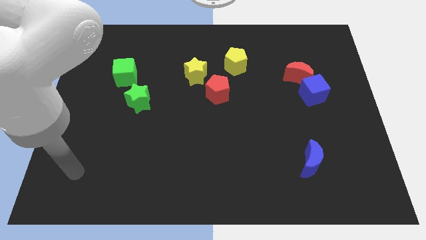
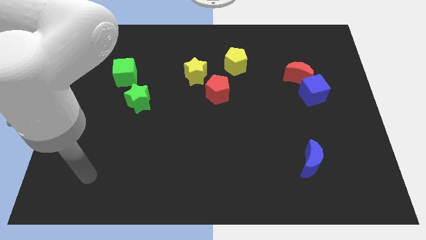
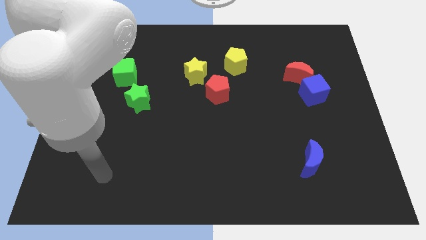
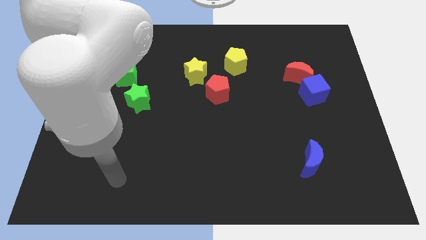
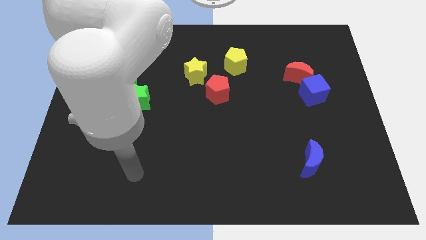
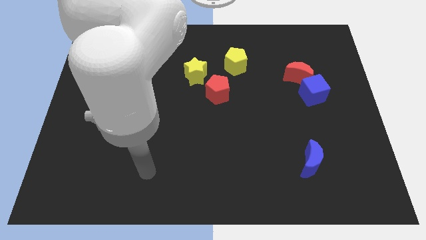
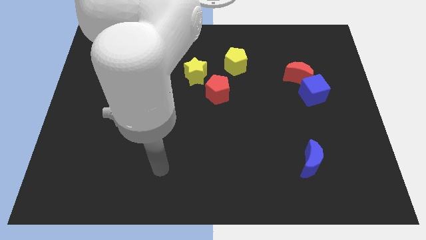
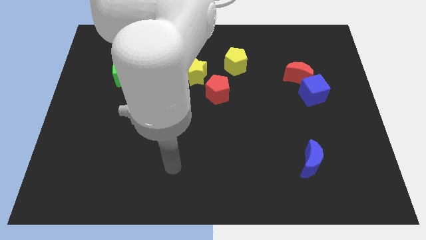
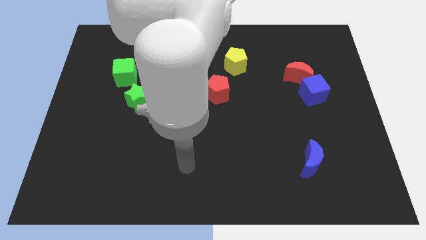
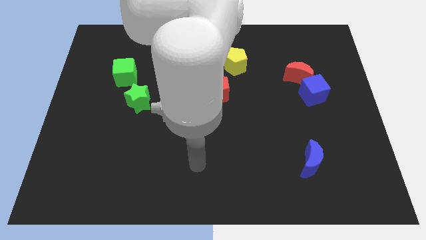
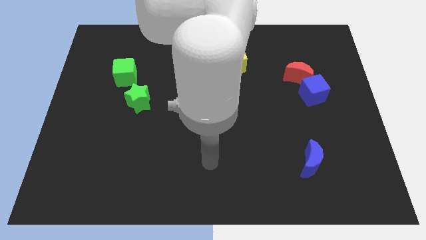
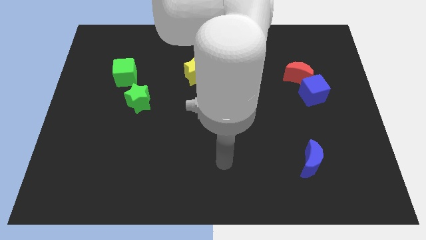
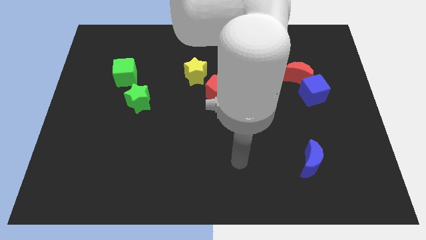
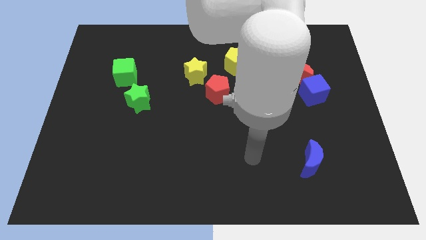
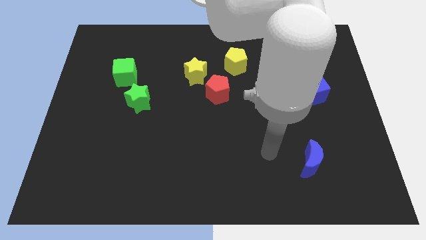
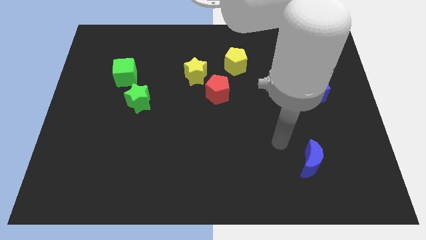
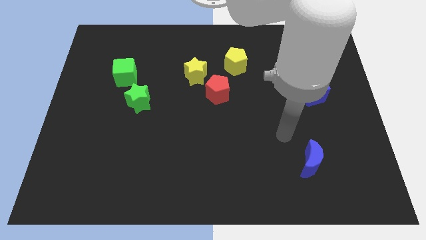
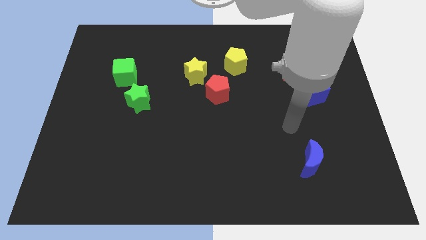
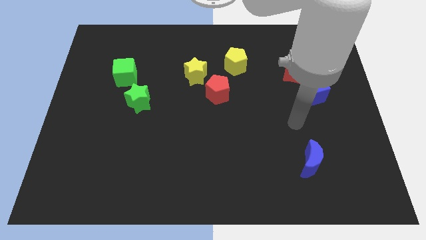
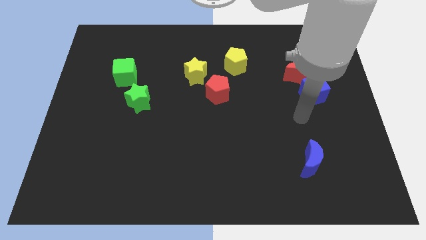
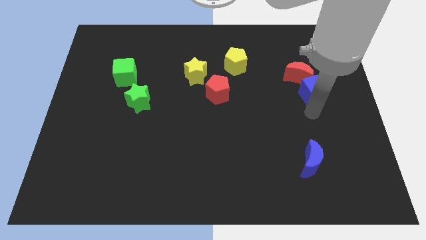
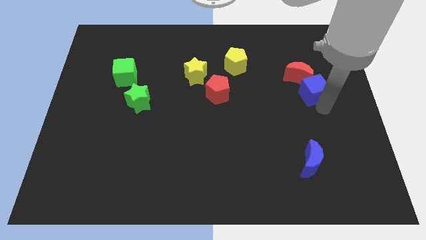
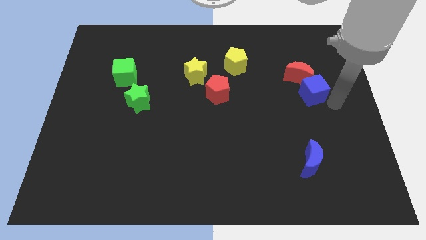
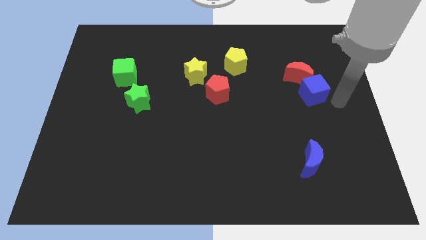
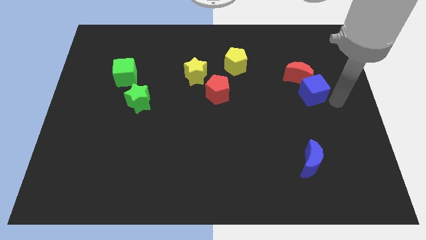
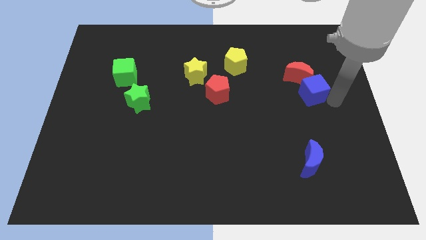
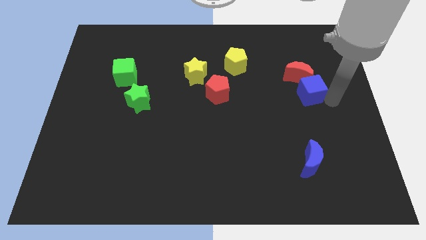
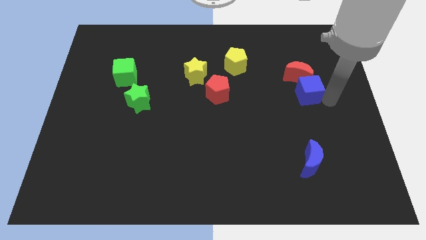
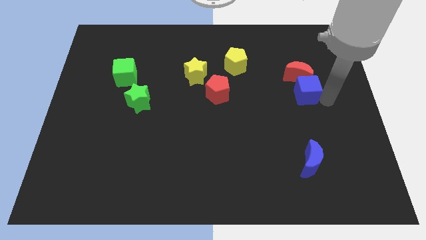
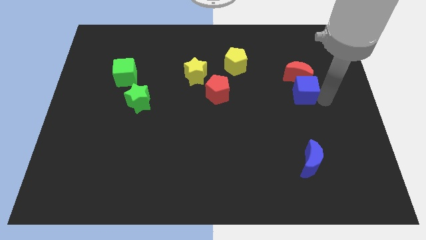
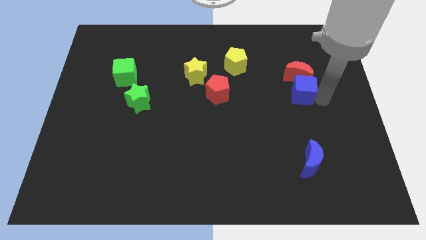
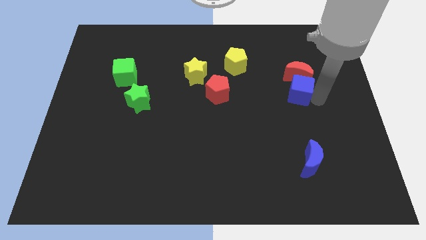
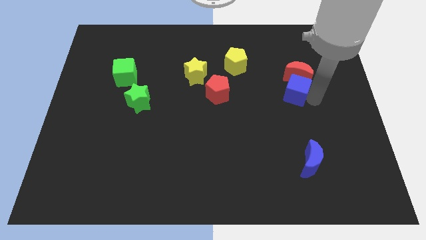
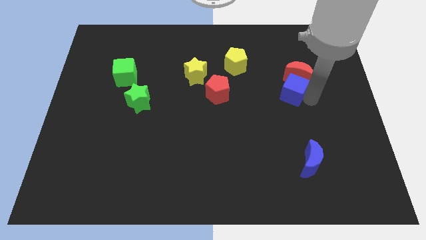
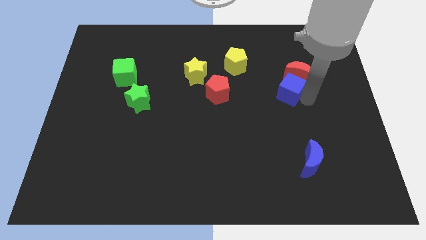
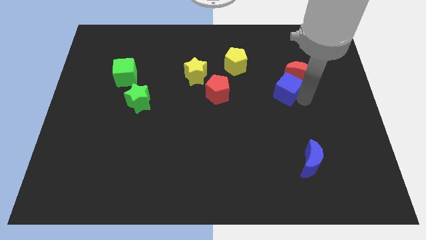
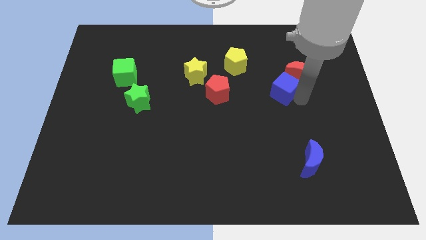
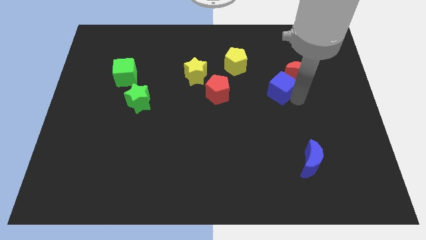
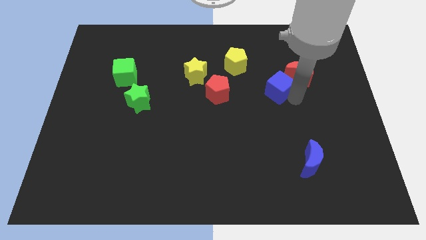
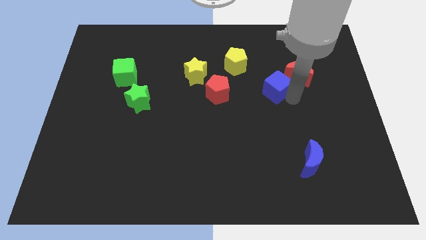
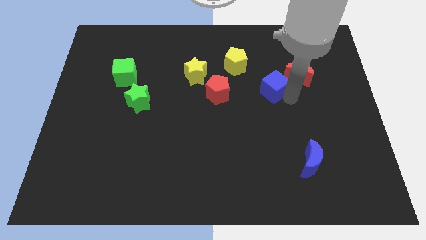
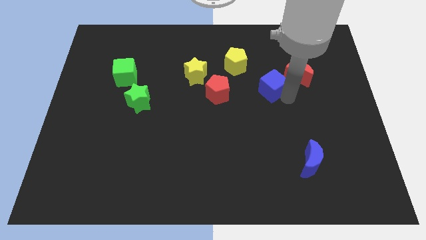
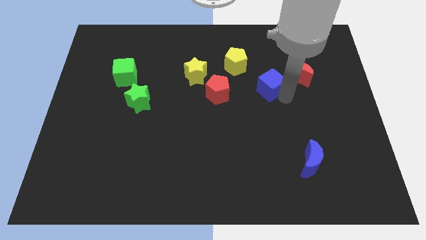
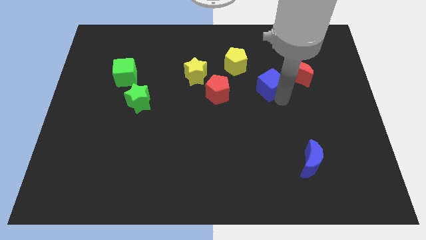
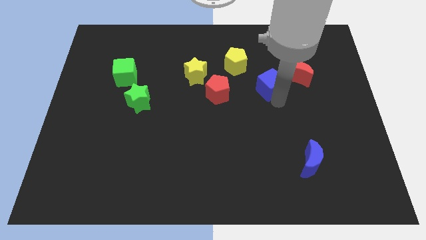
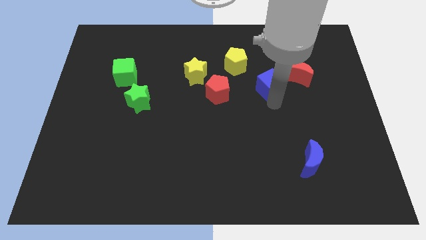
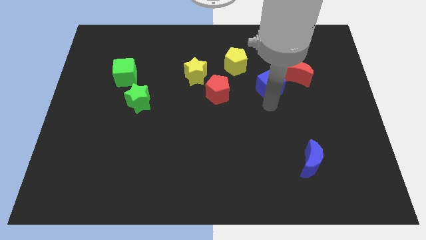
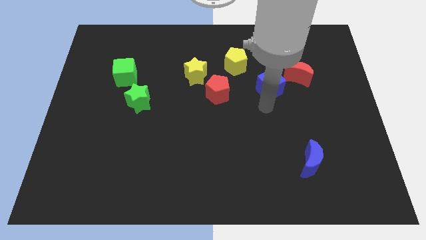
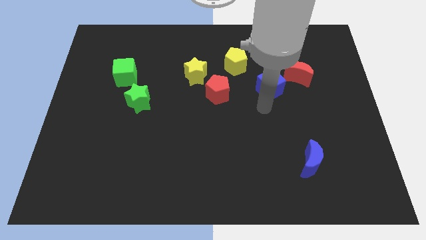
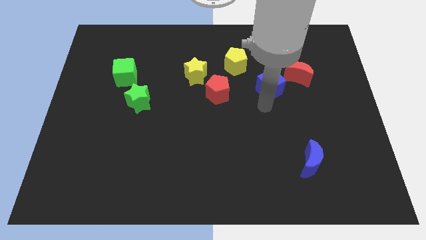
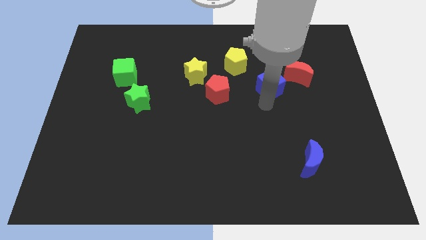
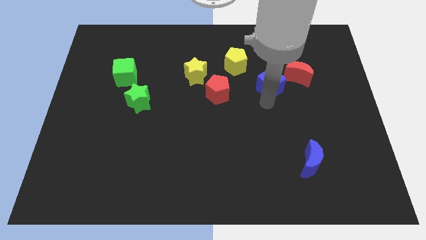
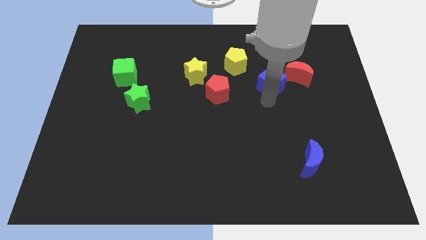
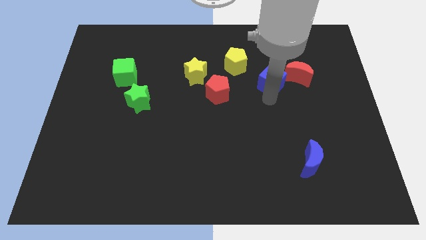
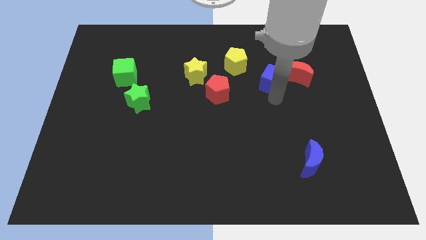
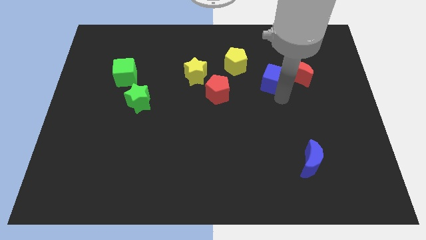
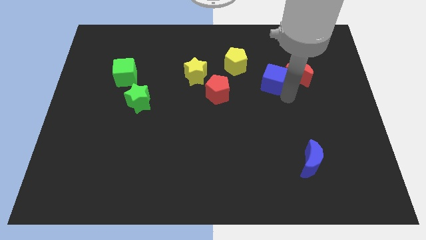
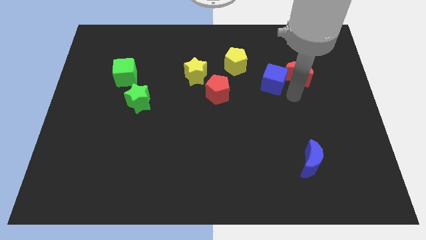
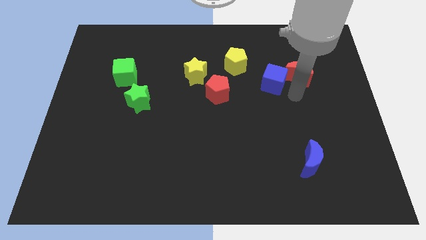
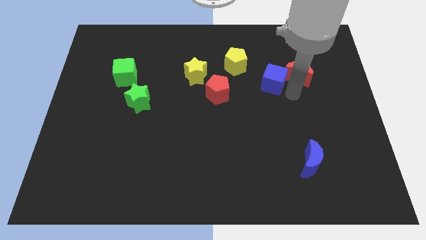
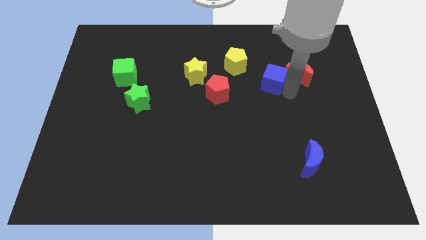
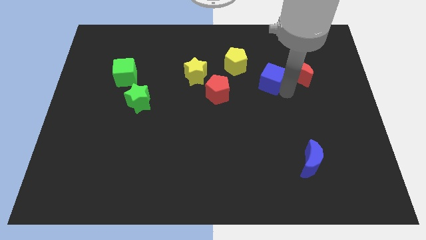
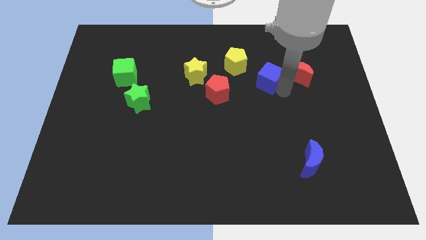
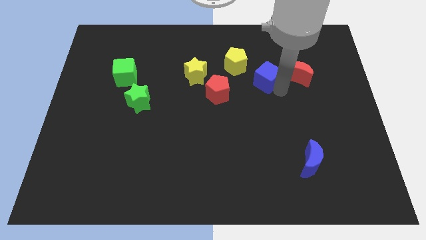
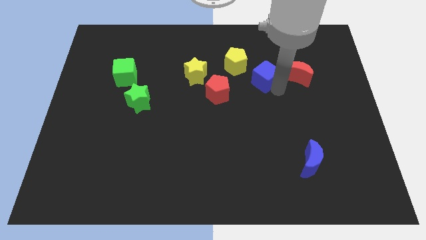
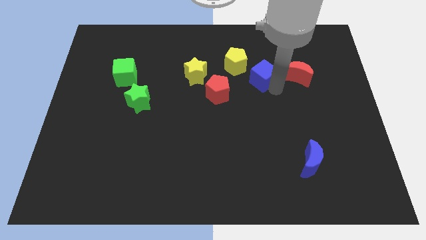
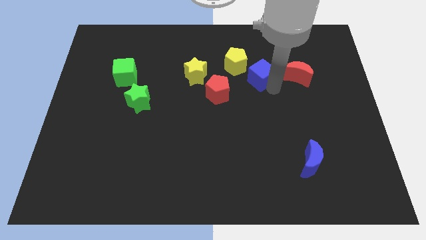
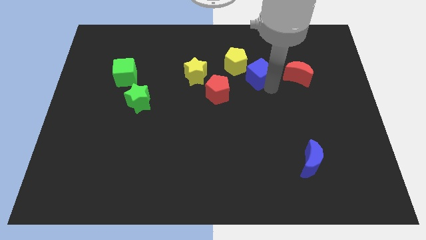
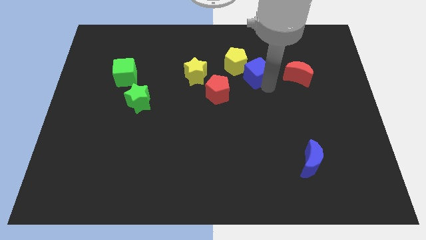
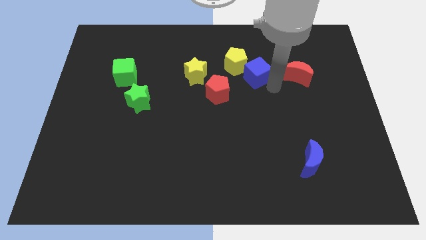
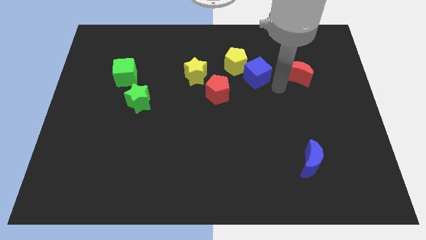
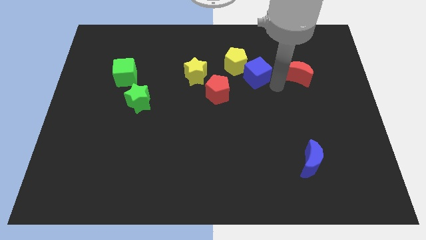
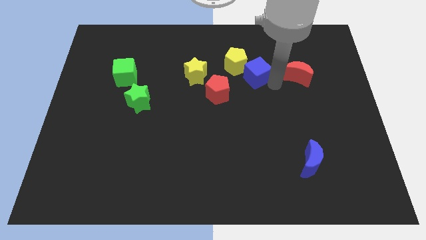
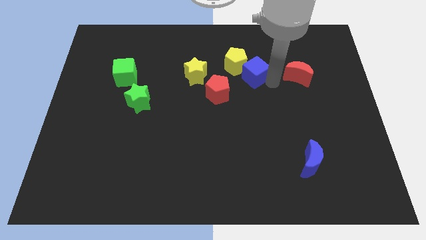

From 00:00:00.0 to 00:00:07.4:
put the blue cube close to the yellow pentagon
